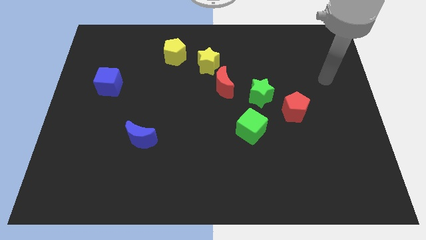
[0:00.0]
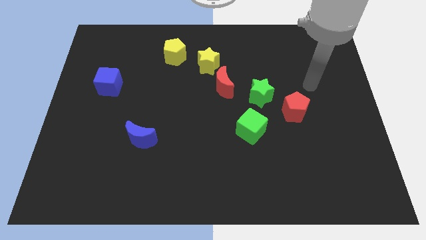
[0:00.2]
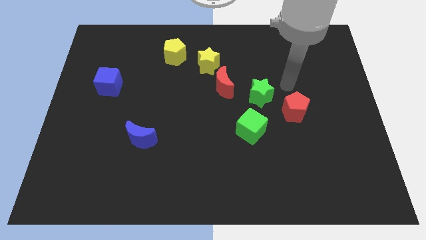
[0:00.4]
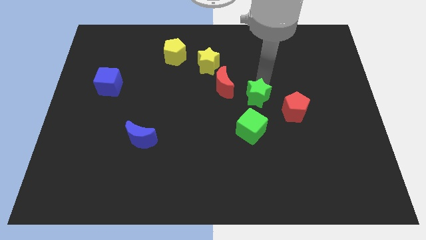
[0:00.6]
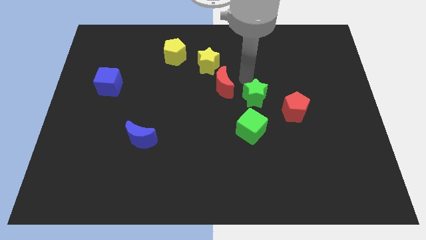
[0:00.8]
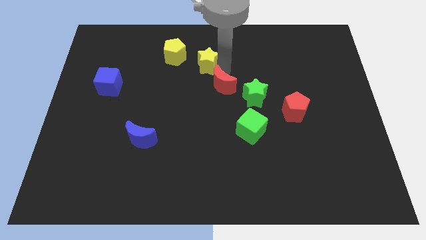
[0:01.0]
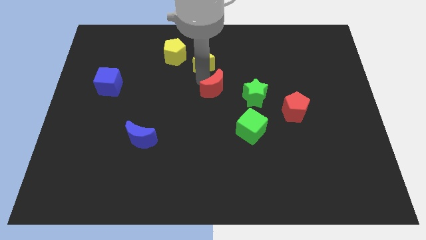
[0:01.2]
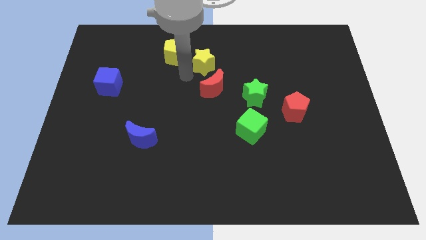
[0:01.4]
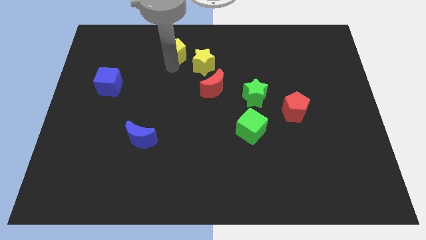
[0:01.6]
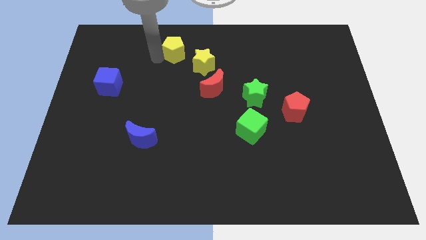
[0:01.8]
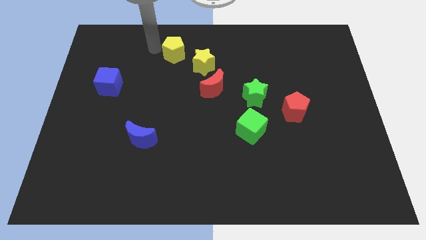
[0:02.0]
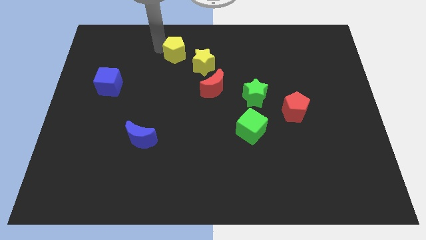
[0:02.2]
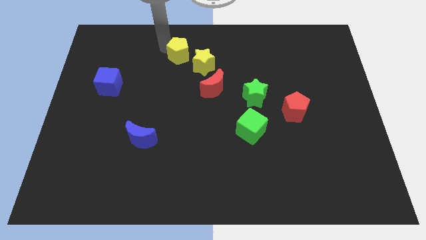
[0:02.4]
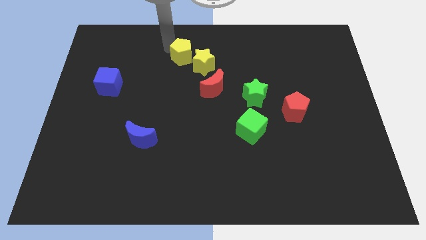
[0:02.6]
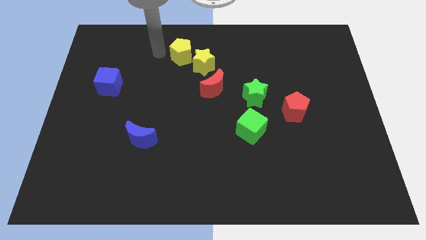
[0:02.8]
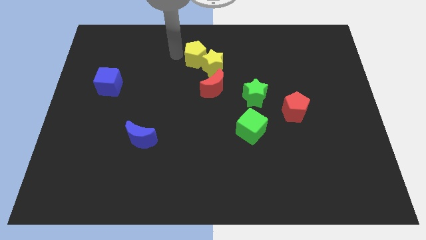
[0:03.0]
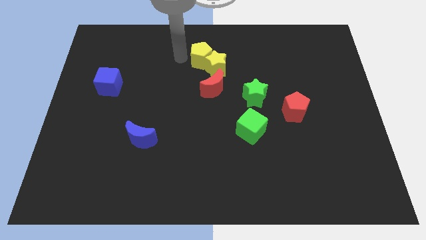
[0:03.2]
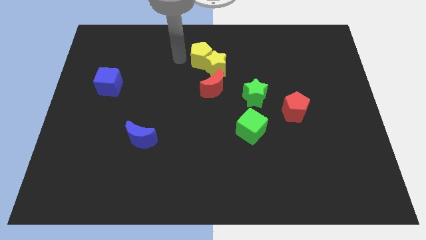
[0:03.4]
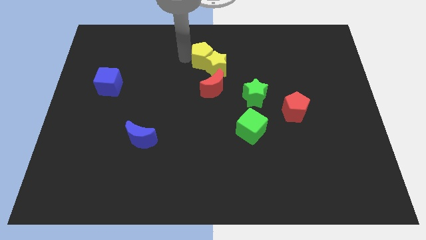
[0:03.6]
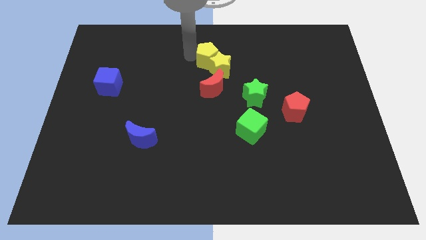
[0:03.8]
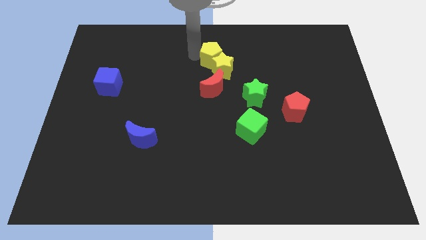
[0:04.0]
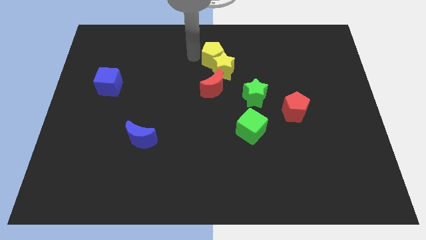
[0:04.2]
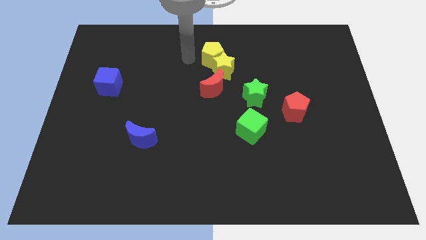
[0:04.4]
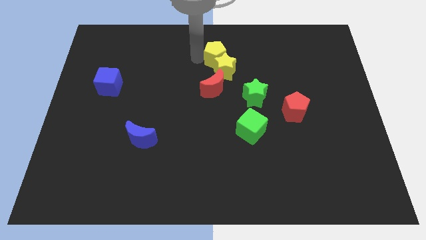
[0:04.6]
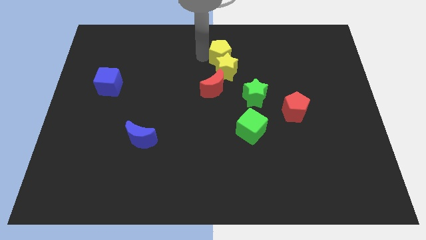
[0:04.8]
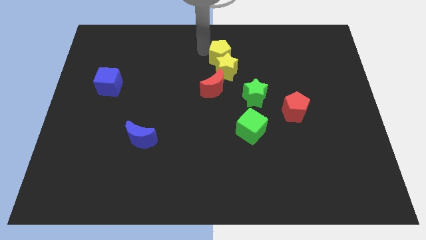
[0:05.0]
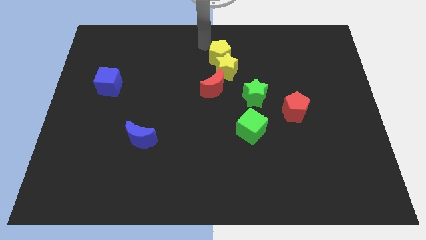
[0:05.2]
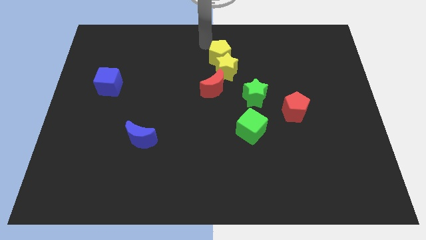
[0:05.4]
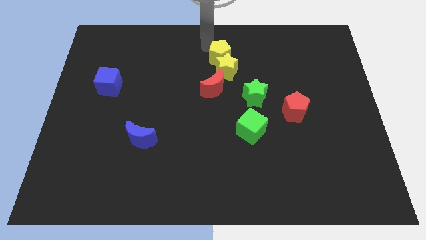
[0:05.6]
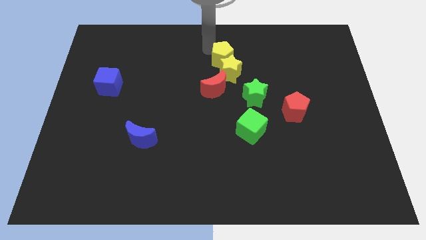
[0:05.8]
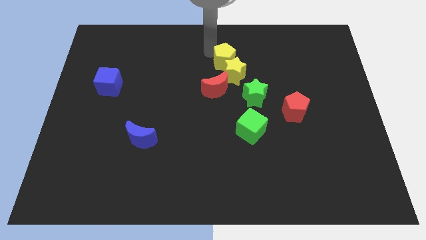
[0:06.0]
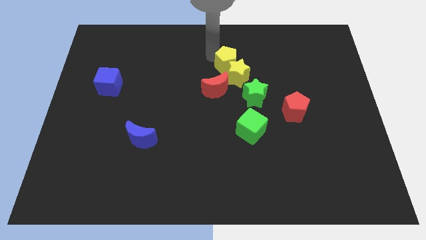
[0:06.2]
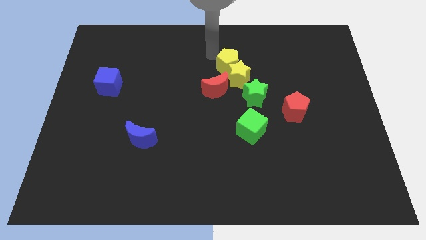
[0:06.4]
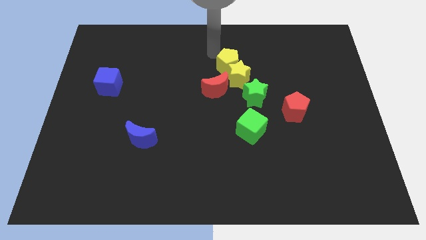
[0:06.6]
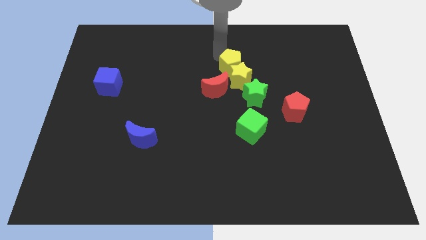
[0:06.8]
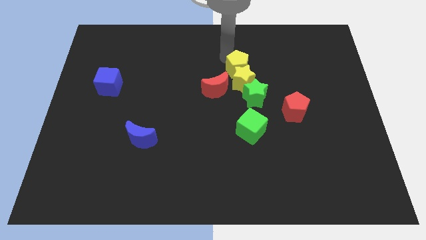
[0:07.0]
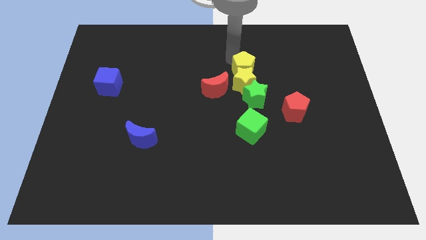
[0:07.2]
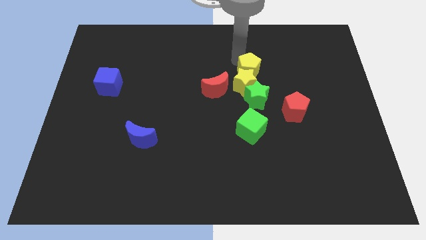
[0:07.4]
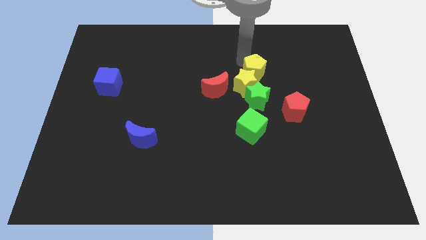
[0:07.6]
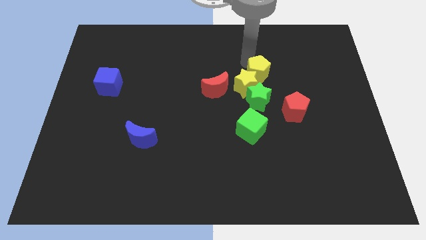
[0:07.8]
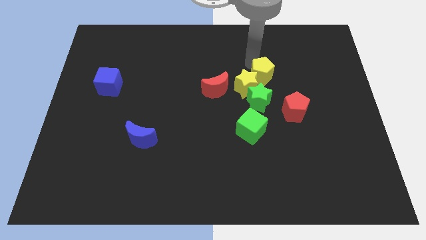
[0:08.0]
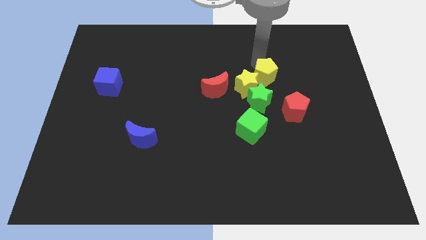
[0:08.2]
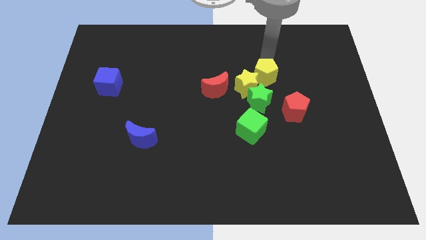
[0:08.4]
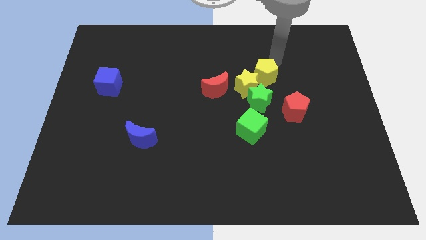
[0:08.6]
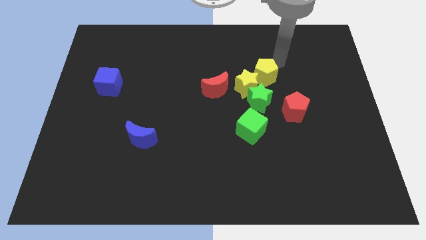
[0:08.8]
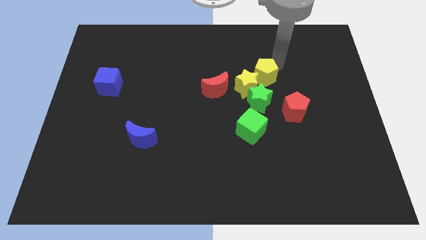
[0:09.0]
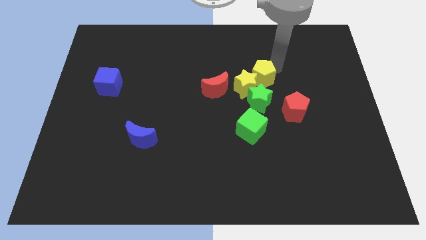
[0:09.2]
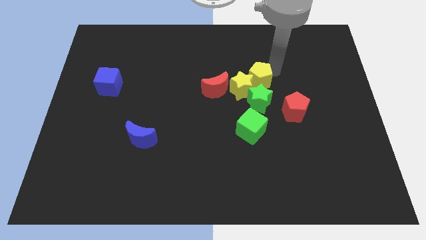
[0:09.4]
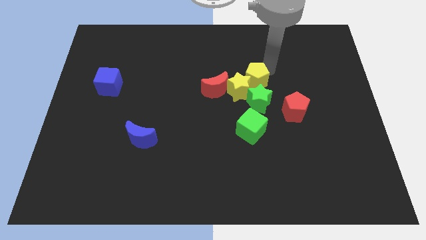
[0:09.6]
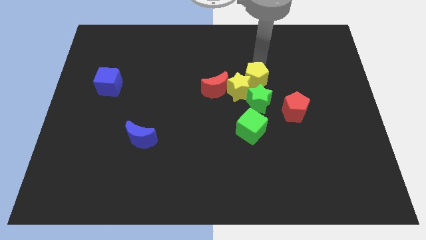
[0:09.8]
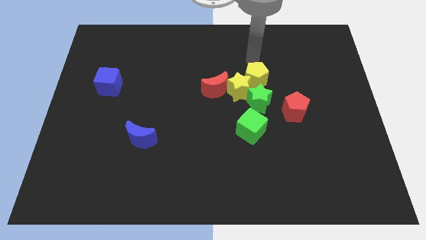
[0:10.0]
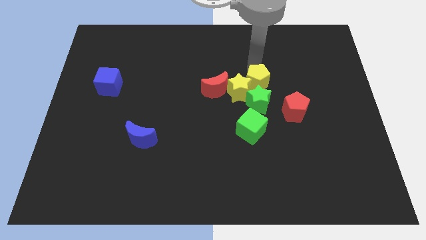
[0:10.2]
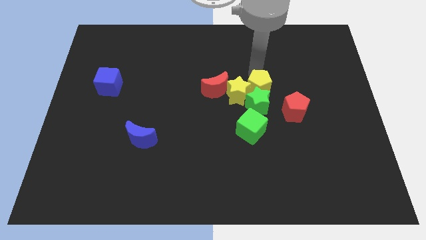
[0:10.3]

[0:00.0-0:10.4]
move the yellow pentagon to the green star

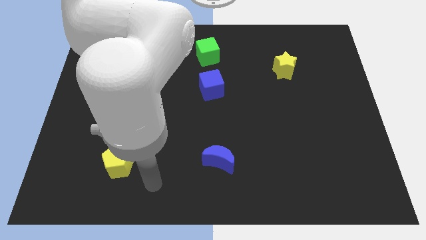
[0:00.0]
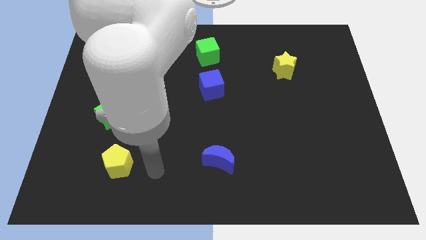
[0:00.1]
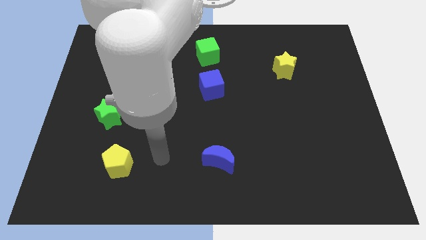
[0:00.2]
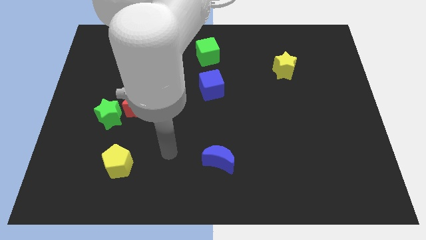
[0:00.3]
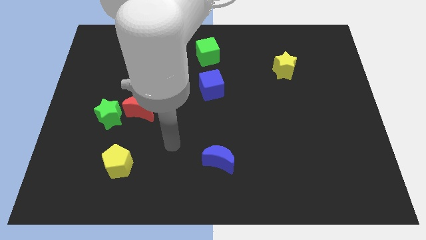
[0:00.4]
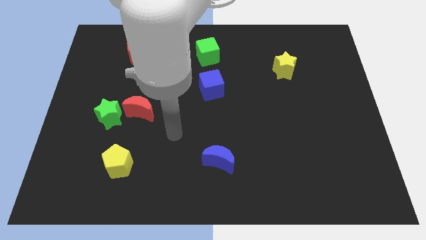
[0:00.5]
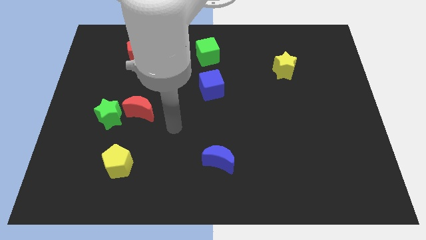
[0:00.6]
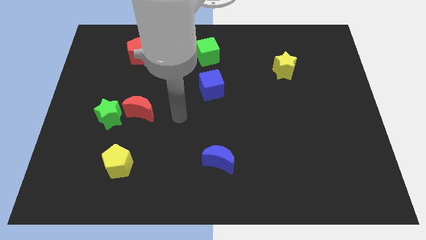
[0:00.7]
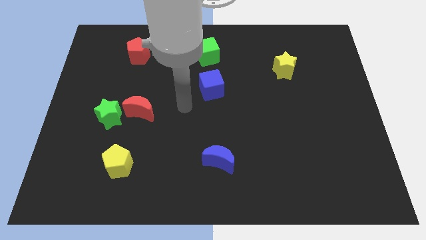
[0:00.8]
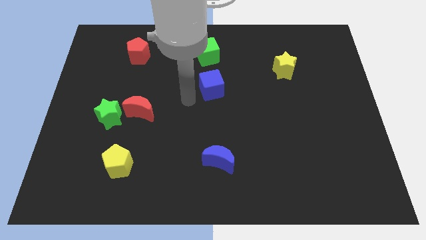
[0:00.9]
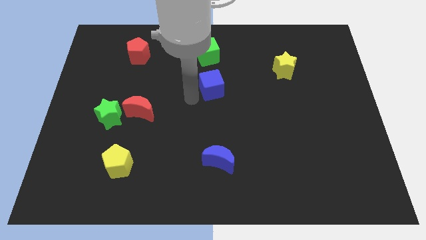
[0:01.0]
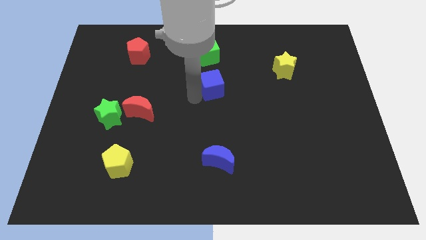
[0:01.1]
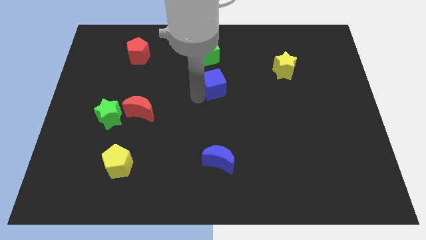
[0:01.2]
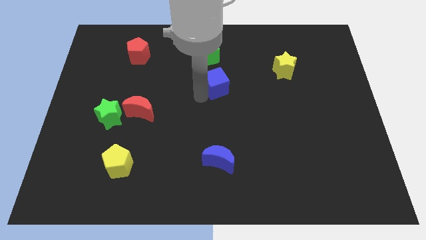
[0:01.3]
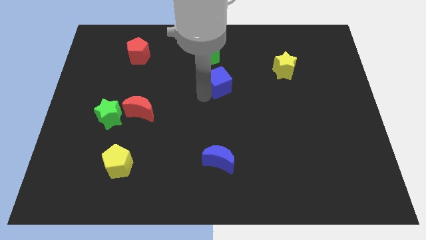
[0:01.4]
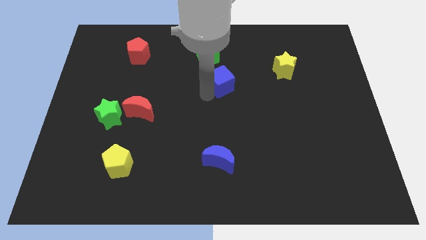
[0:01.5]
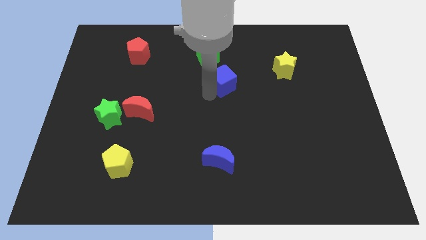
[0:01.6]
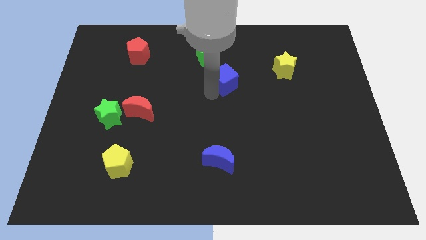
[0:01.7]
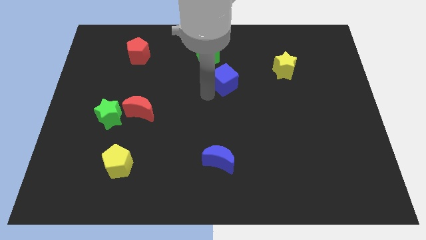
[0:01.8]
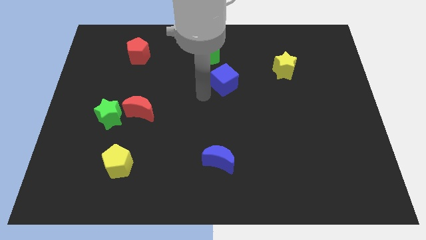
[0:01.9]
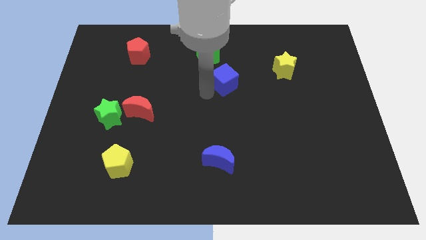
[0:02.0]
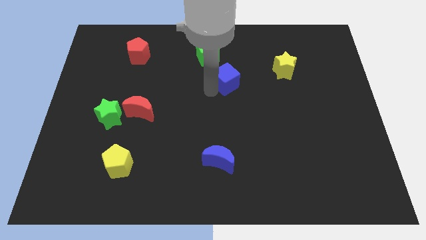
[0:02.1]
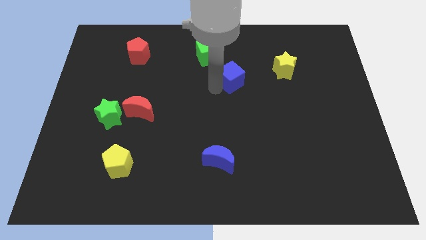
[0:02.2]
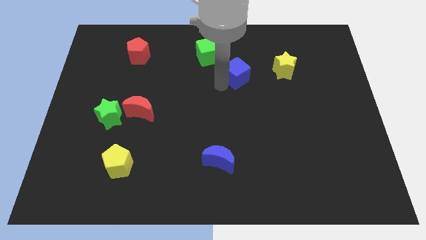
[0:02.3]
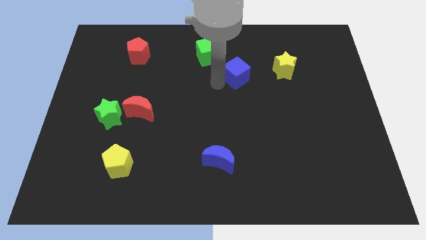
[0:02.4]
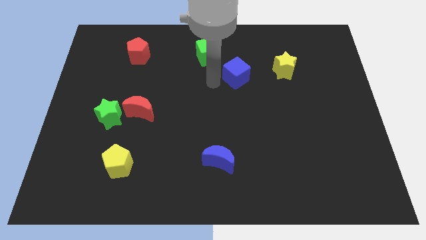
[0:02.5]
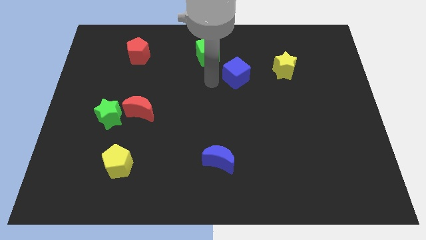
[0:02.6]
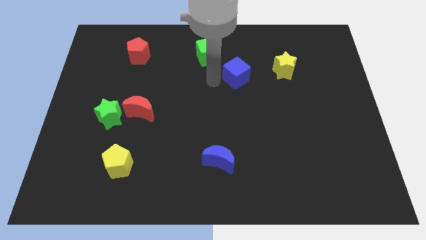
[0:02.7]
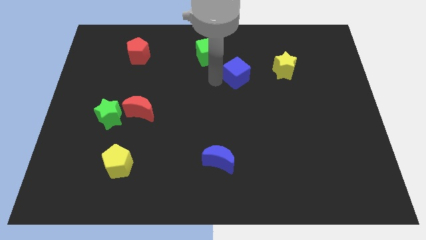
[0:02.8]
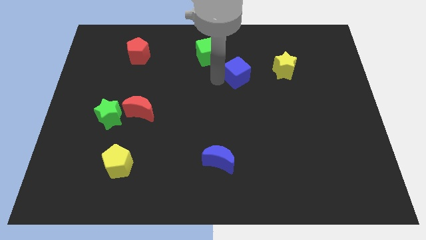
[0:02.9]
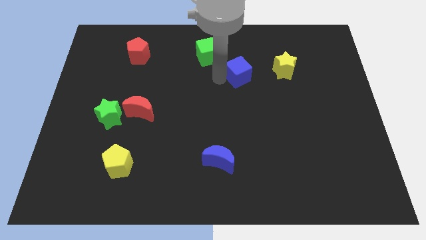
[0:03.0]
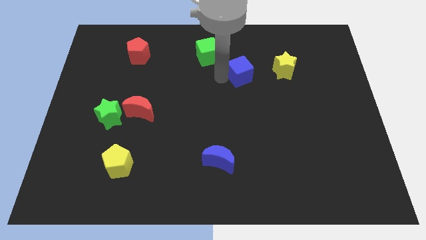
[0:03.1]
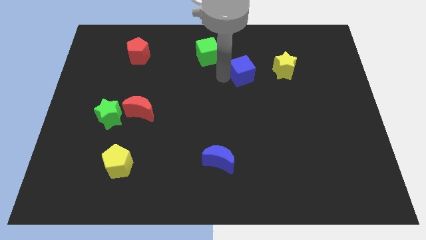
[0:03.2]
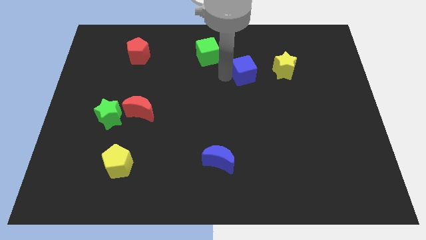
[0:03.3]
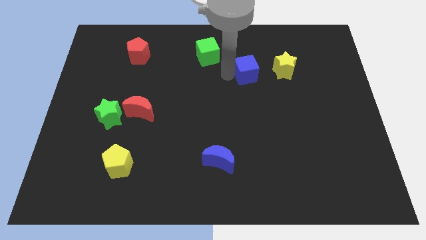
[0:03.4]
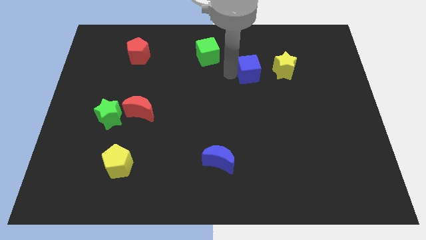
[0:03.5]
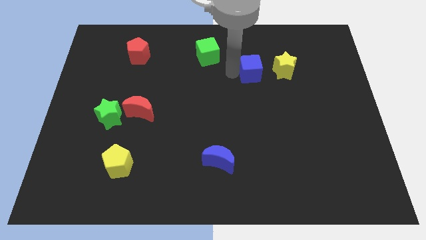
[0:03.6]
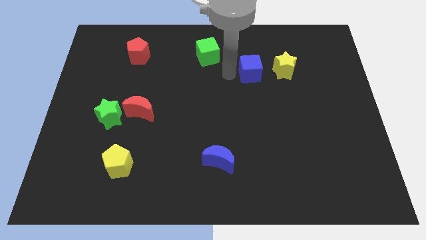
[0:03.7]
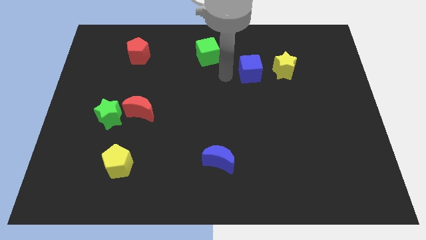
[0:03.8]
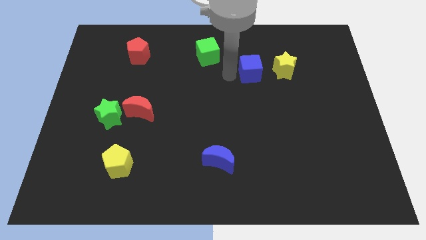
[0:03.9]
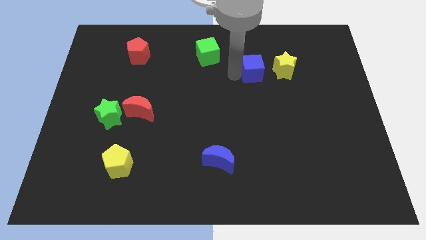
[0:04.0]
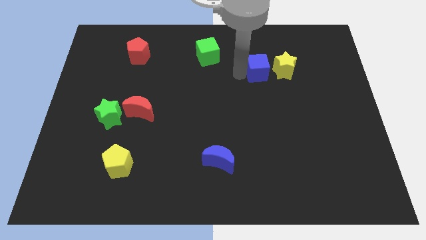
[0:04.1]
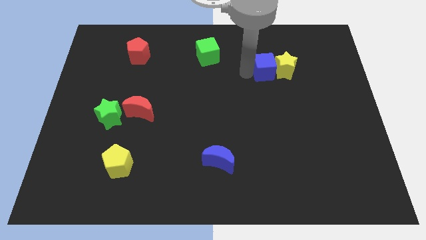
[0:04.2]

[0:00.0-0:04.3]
move the blue cube to the yellow star
